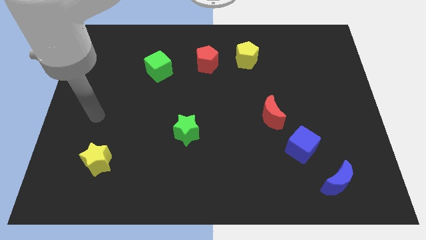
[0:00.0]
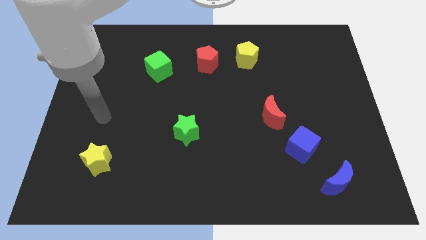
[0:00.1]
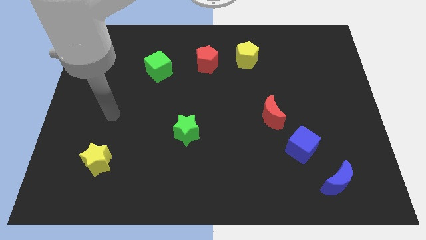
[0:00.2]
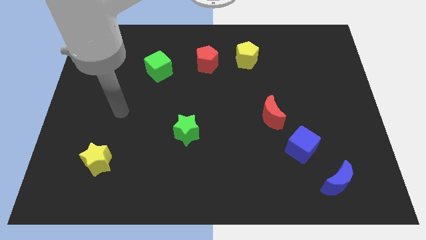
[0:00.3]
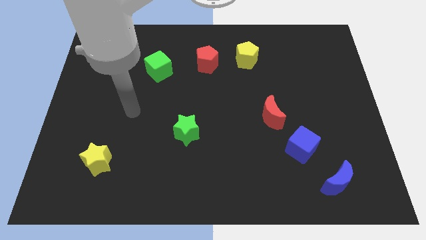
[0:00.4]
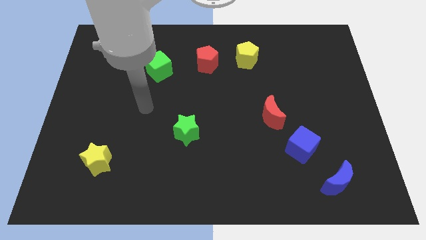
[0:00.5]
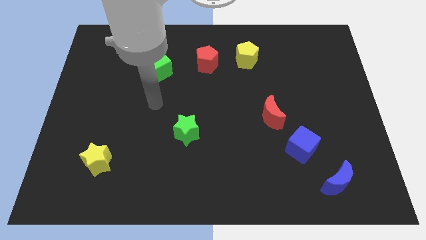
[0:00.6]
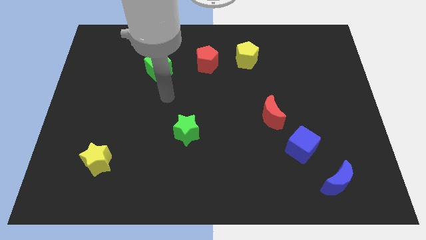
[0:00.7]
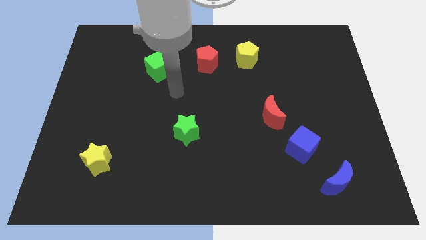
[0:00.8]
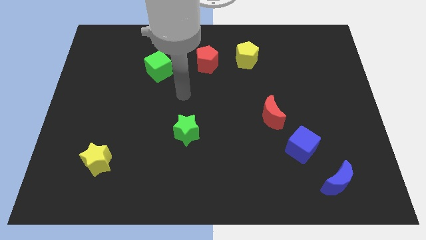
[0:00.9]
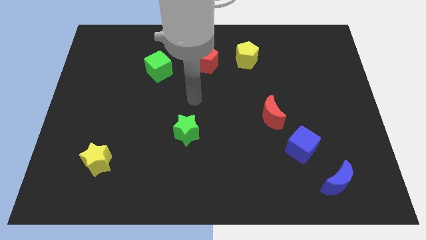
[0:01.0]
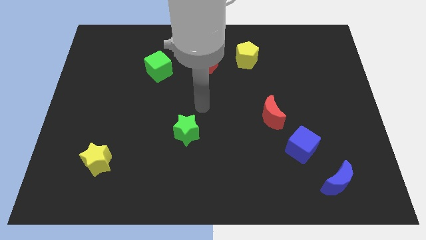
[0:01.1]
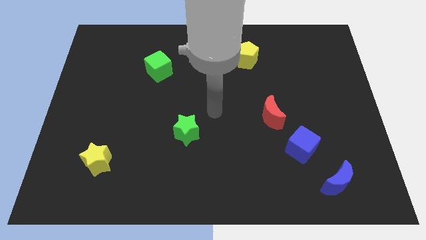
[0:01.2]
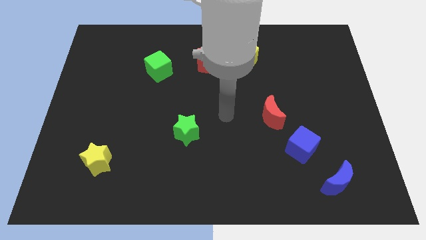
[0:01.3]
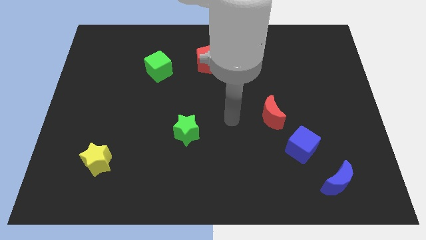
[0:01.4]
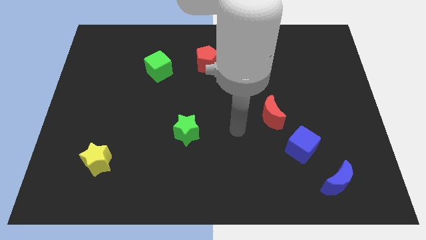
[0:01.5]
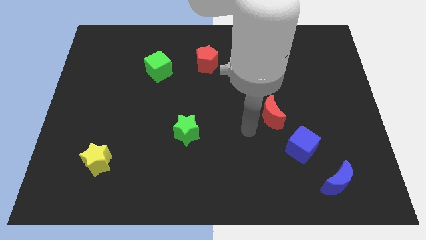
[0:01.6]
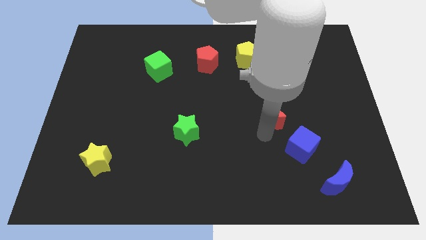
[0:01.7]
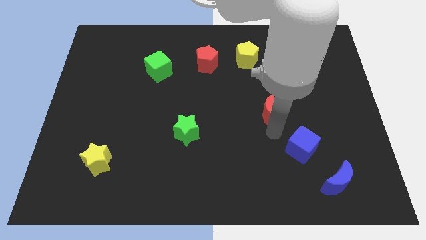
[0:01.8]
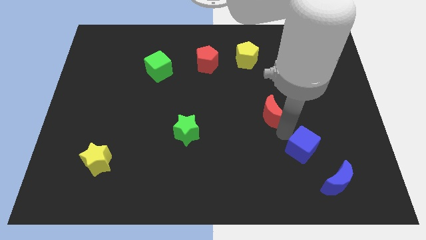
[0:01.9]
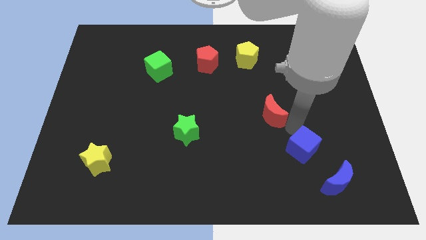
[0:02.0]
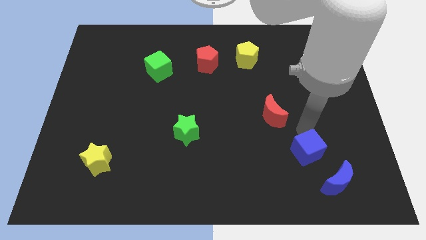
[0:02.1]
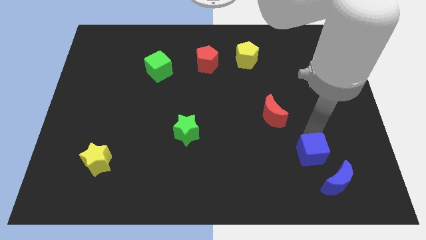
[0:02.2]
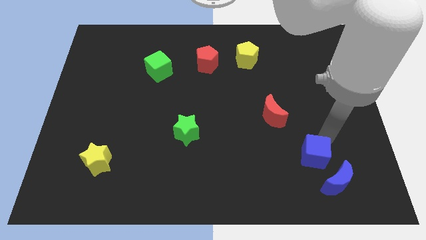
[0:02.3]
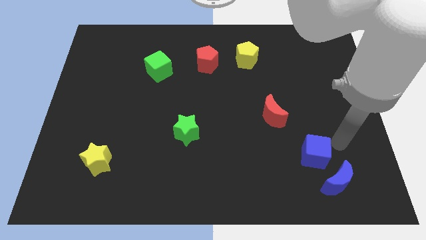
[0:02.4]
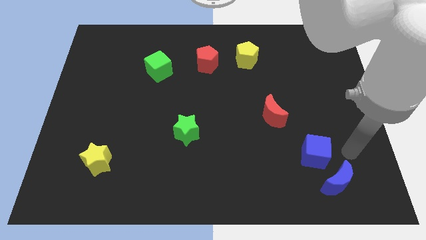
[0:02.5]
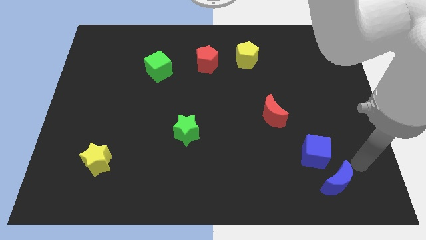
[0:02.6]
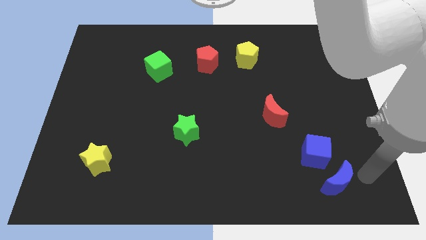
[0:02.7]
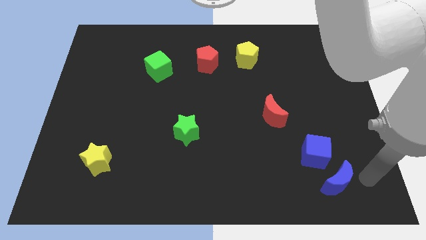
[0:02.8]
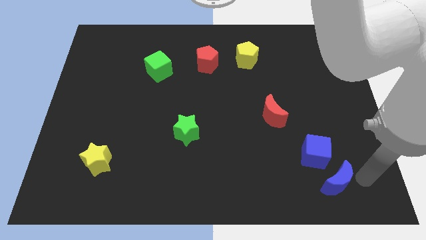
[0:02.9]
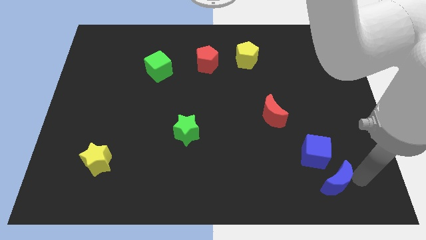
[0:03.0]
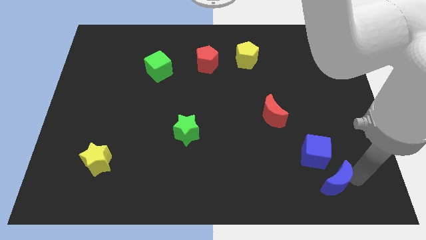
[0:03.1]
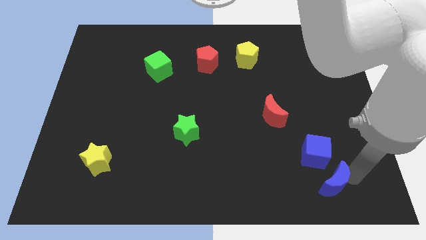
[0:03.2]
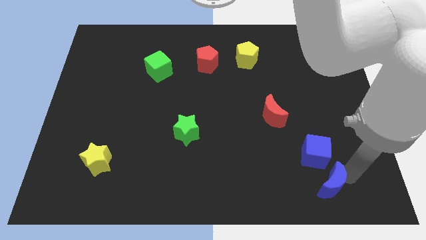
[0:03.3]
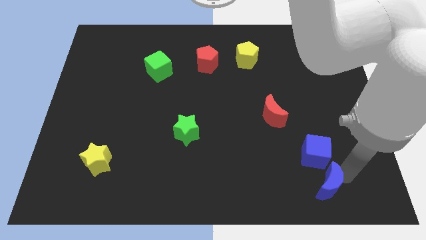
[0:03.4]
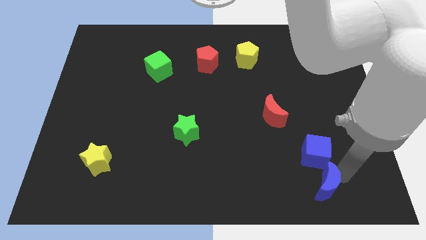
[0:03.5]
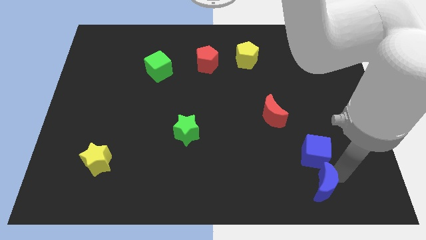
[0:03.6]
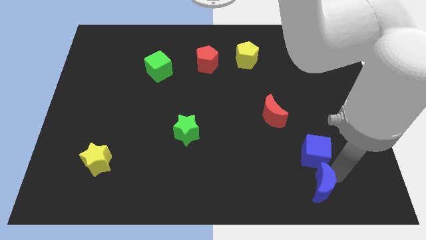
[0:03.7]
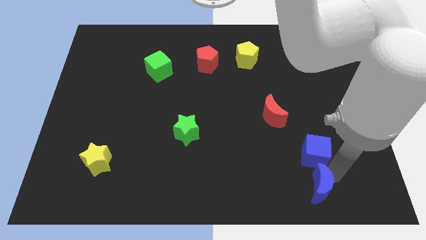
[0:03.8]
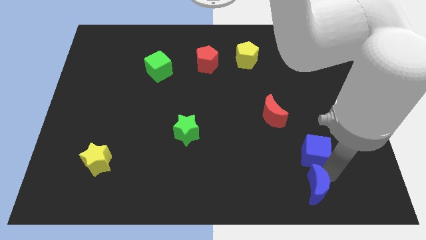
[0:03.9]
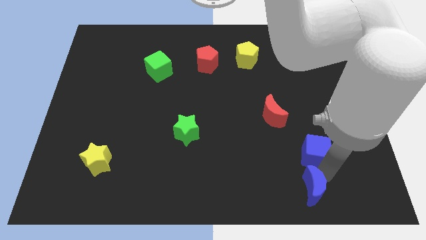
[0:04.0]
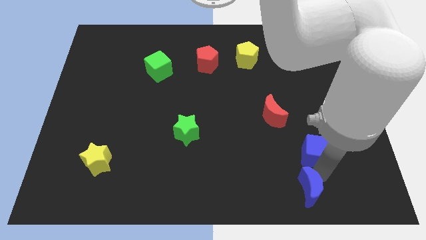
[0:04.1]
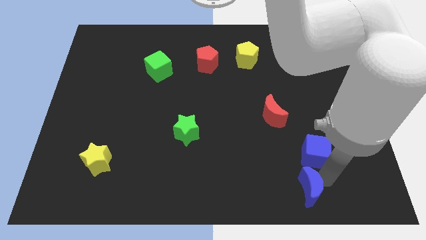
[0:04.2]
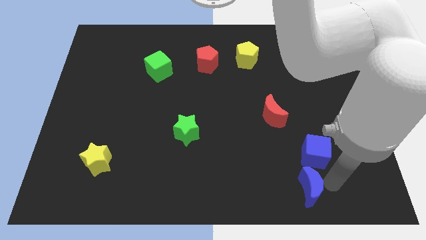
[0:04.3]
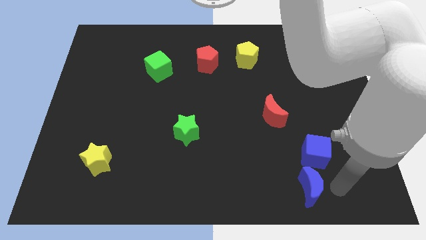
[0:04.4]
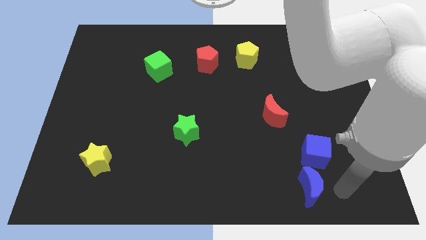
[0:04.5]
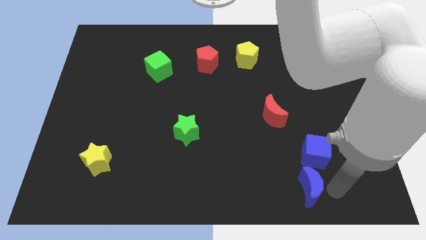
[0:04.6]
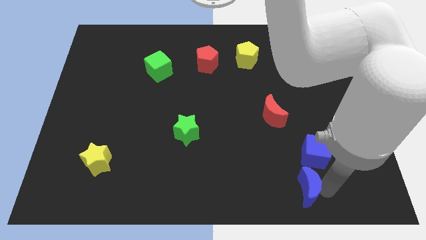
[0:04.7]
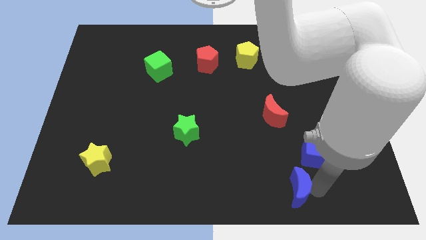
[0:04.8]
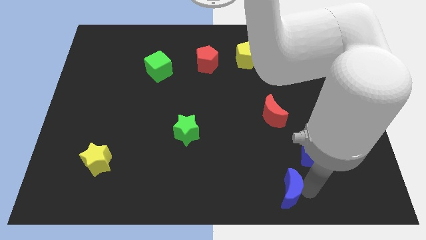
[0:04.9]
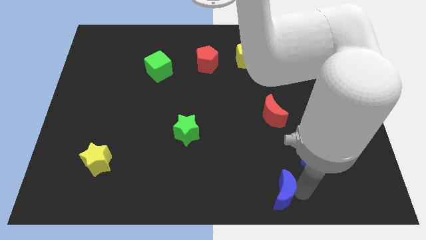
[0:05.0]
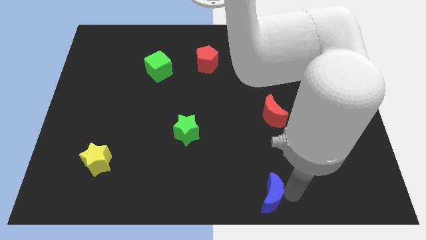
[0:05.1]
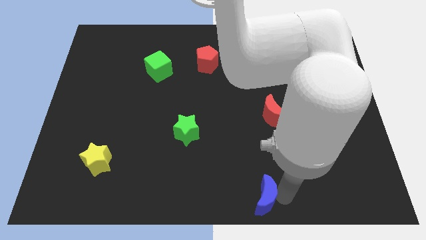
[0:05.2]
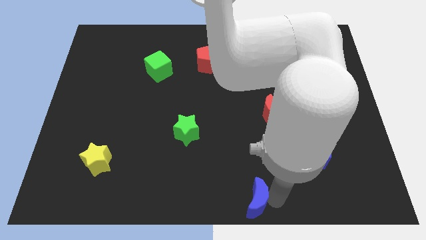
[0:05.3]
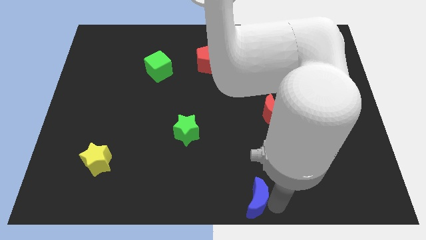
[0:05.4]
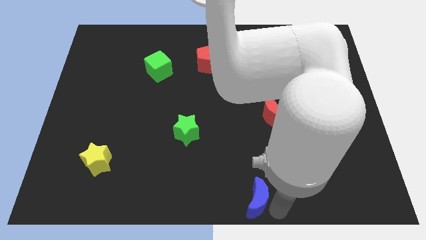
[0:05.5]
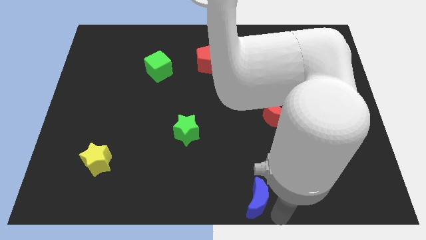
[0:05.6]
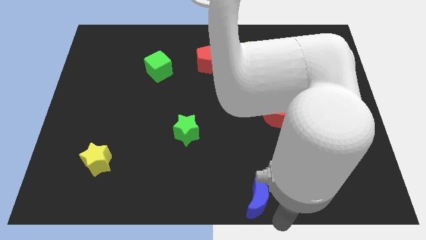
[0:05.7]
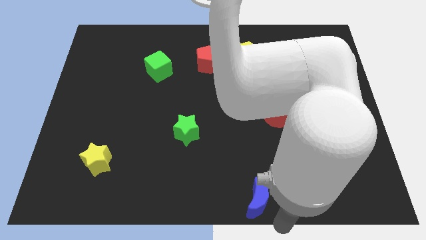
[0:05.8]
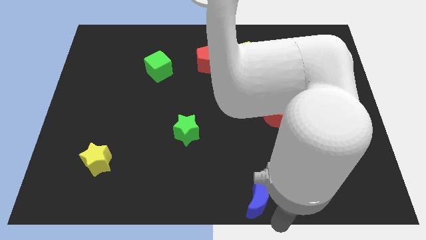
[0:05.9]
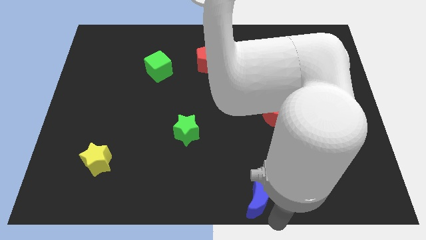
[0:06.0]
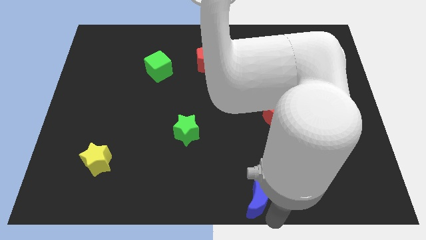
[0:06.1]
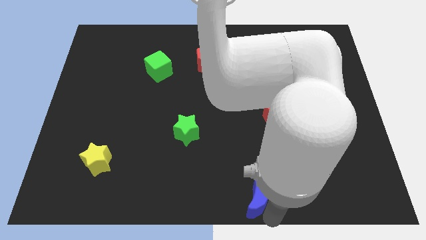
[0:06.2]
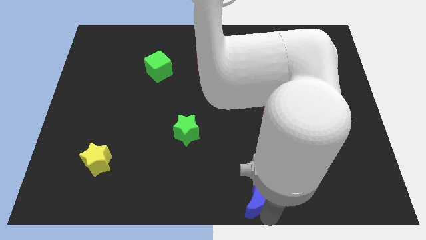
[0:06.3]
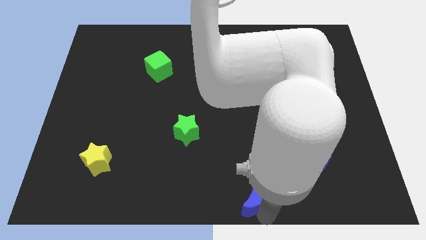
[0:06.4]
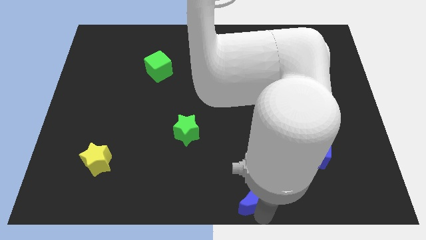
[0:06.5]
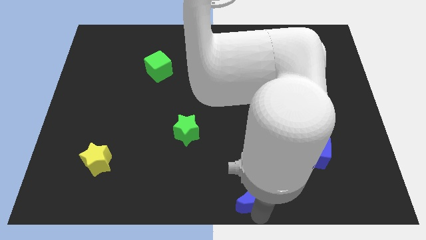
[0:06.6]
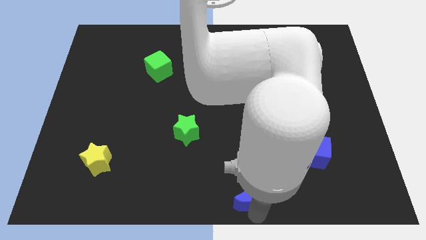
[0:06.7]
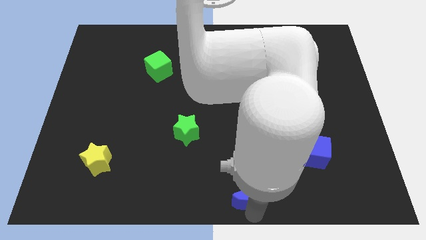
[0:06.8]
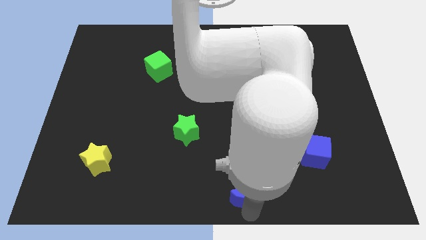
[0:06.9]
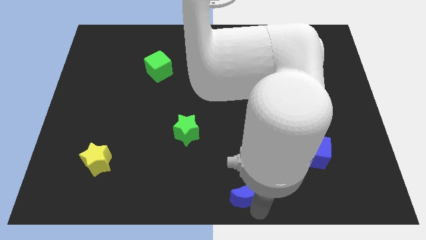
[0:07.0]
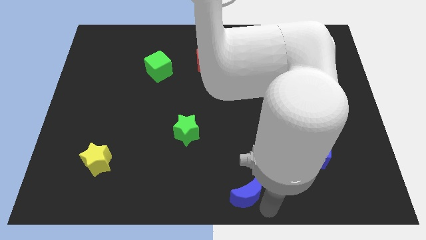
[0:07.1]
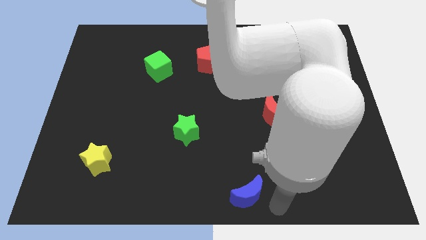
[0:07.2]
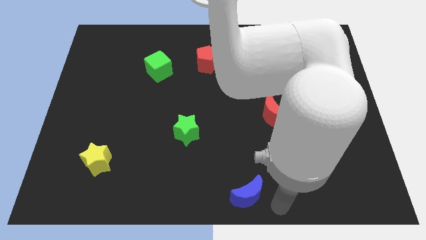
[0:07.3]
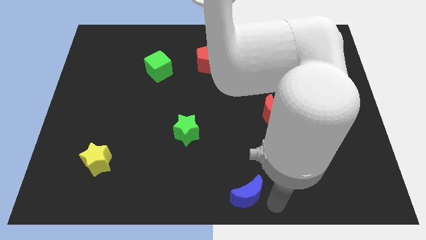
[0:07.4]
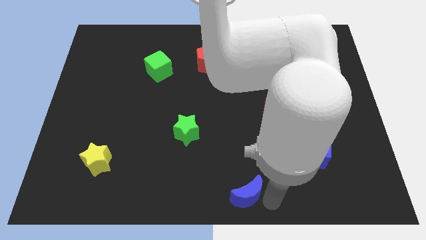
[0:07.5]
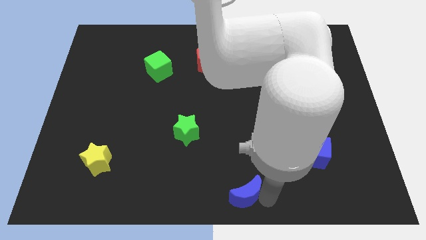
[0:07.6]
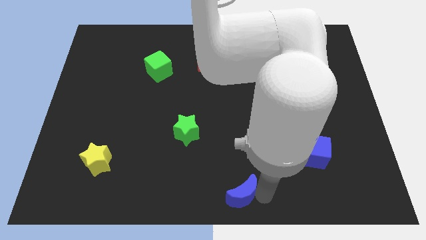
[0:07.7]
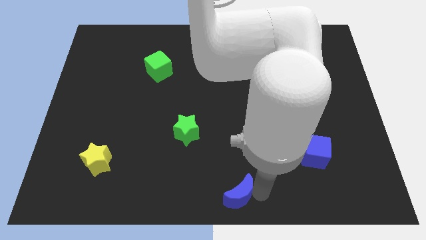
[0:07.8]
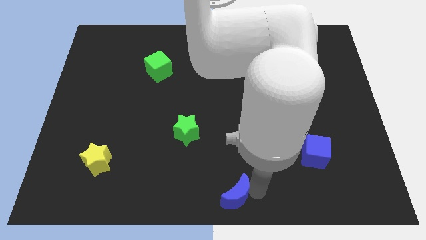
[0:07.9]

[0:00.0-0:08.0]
move the blue moon left
